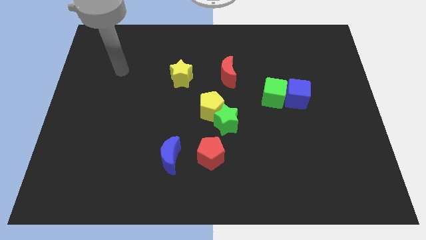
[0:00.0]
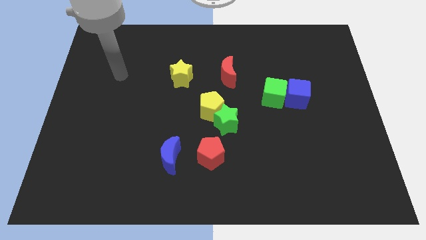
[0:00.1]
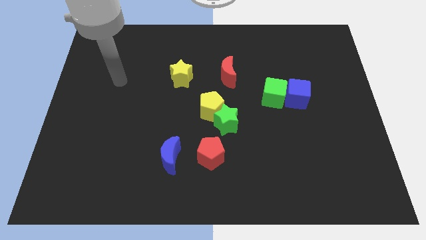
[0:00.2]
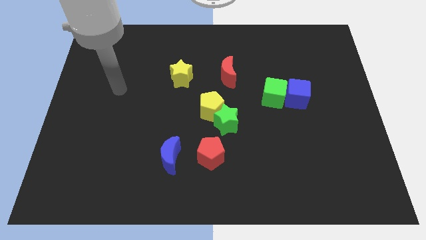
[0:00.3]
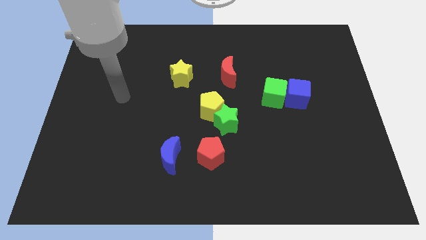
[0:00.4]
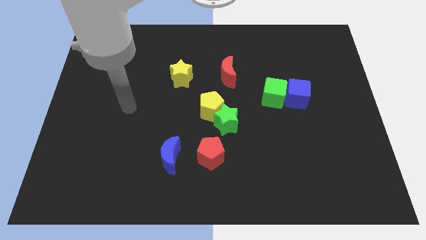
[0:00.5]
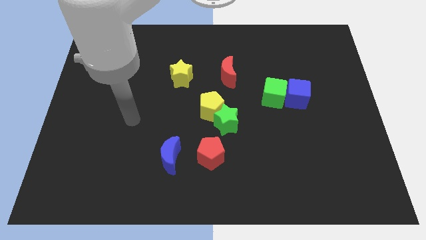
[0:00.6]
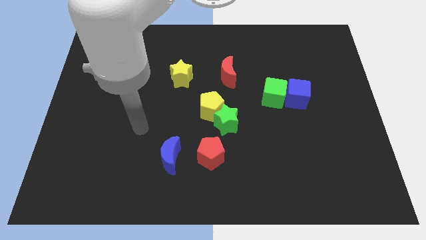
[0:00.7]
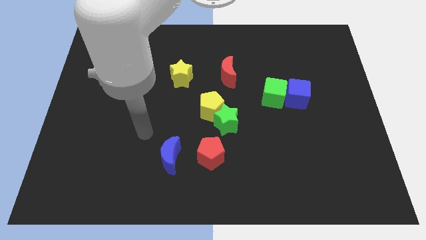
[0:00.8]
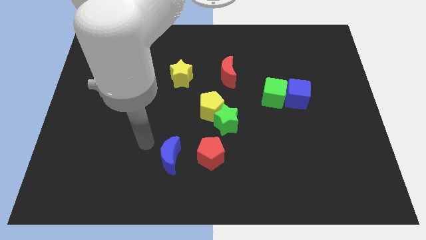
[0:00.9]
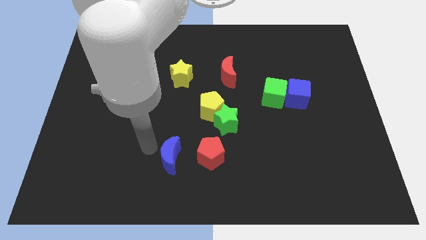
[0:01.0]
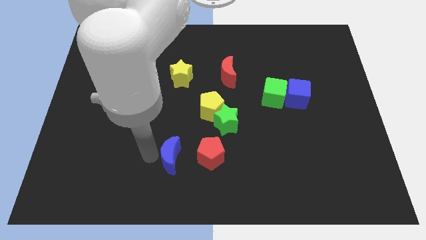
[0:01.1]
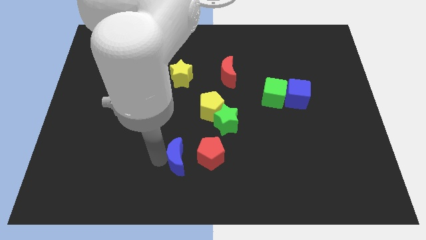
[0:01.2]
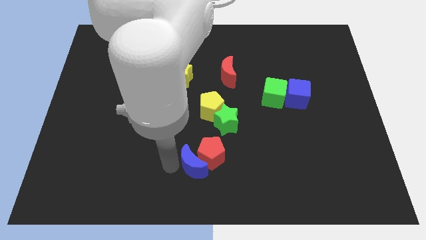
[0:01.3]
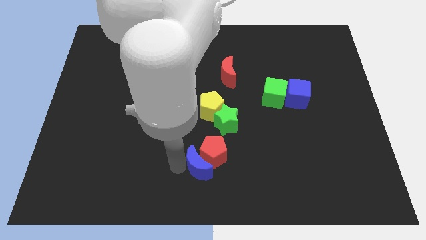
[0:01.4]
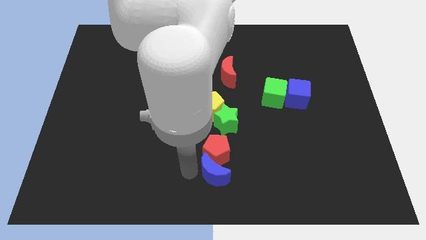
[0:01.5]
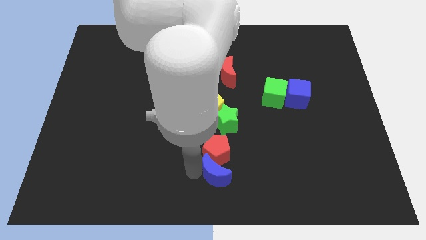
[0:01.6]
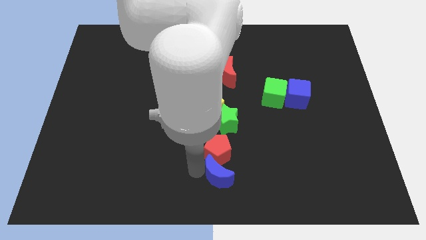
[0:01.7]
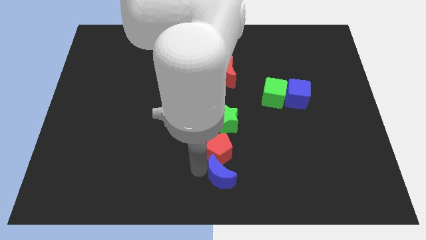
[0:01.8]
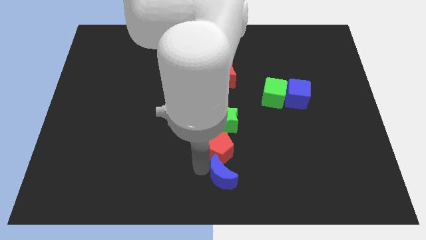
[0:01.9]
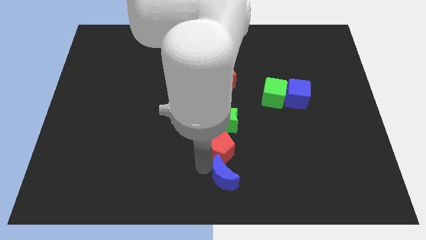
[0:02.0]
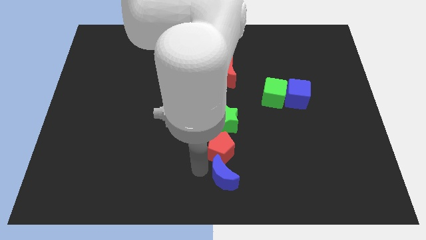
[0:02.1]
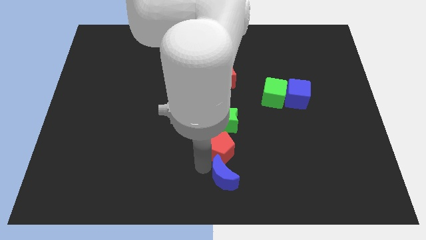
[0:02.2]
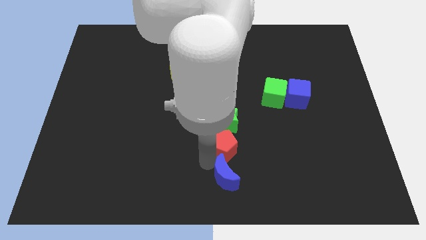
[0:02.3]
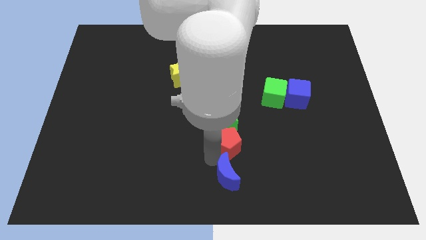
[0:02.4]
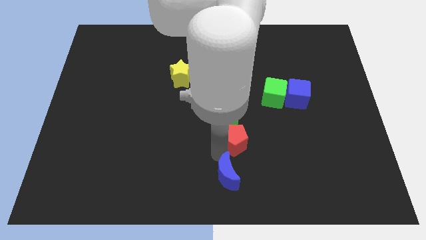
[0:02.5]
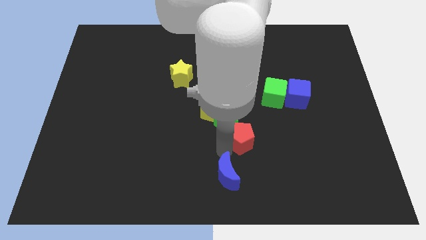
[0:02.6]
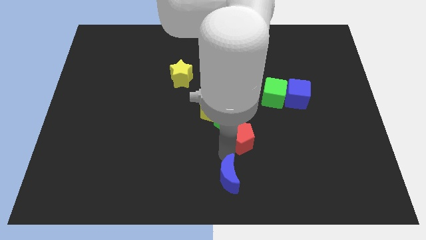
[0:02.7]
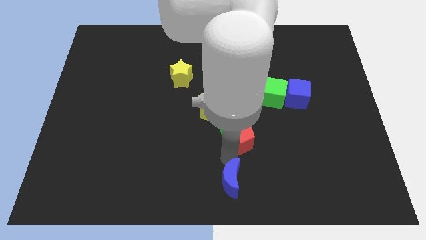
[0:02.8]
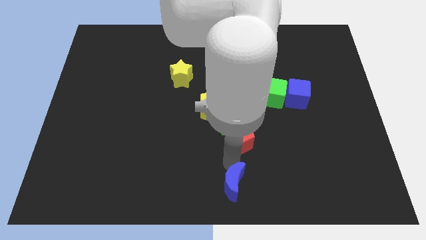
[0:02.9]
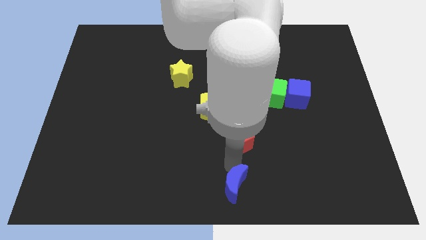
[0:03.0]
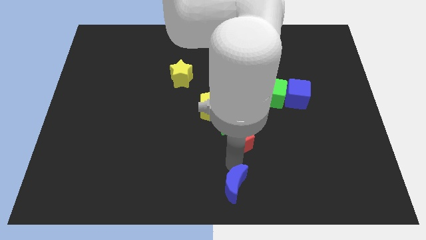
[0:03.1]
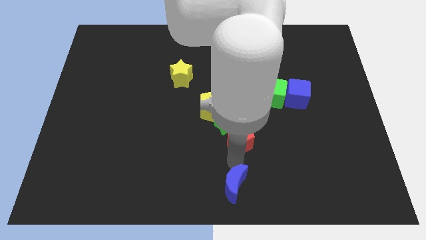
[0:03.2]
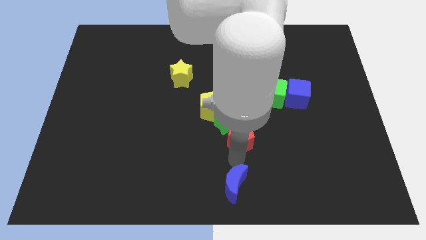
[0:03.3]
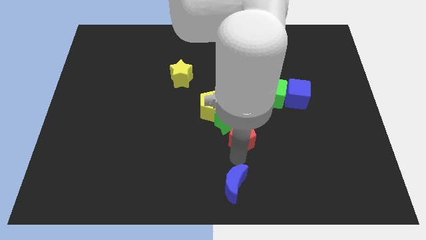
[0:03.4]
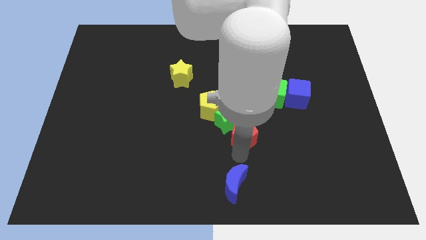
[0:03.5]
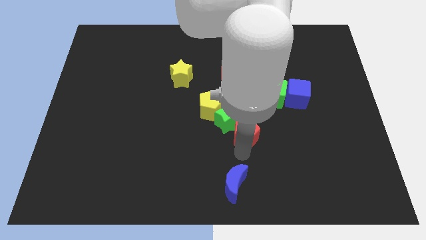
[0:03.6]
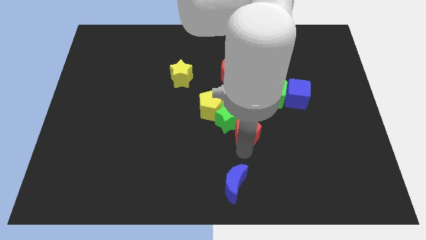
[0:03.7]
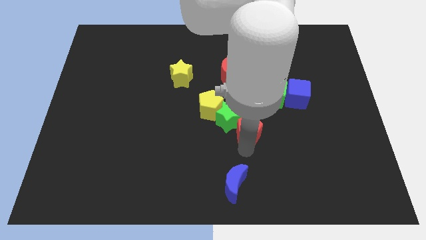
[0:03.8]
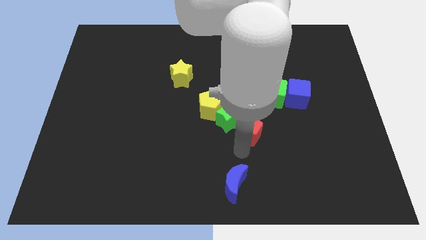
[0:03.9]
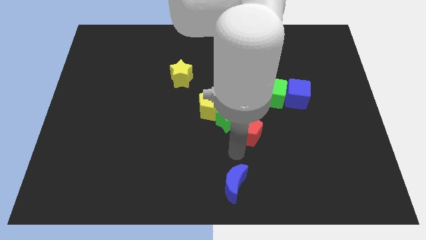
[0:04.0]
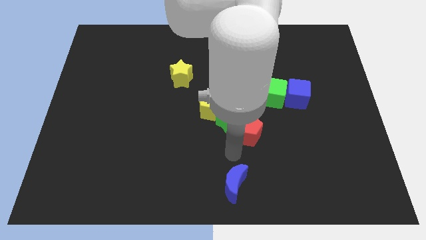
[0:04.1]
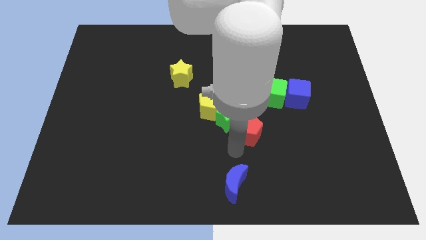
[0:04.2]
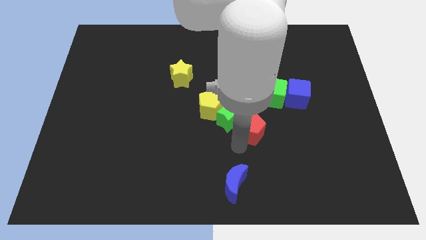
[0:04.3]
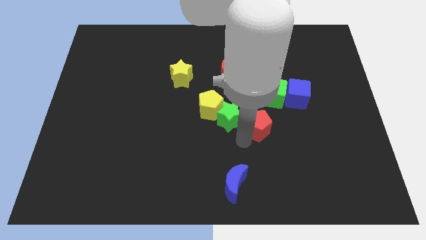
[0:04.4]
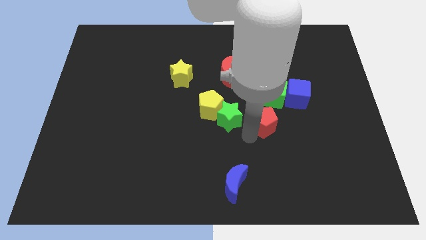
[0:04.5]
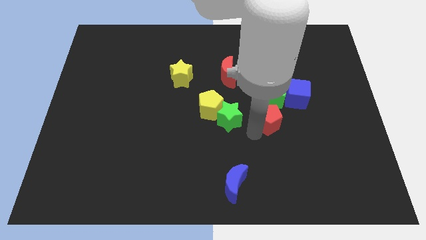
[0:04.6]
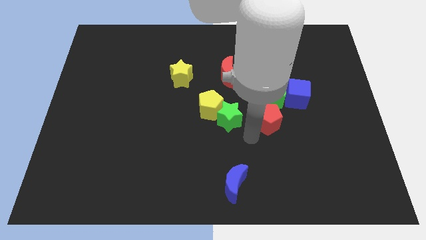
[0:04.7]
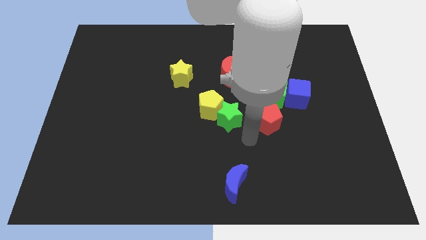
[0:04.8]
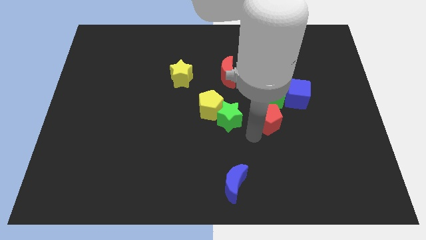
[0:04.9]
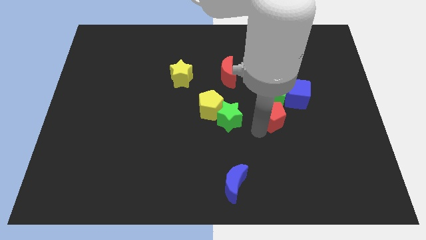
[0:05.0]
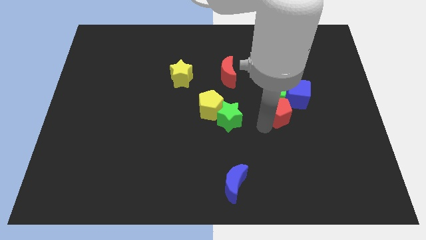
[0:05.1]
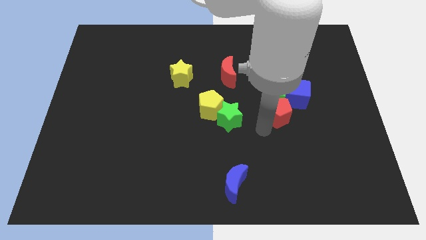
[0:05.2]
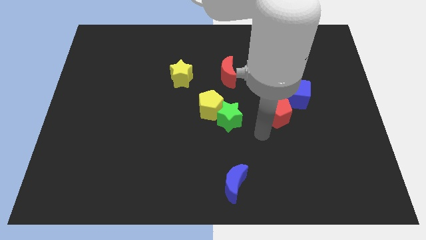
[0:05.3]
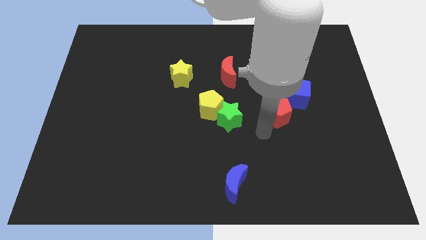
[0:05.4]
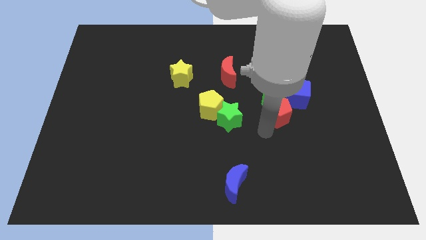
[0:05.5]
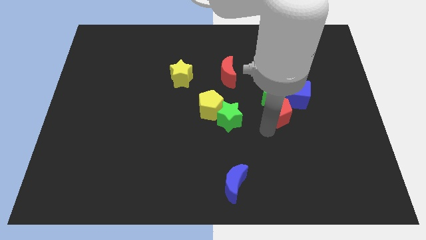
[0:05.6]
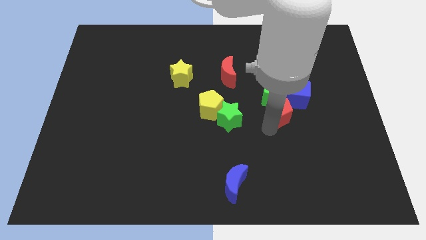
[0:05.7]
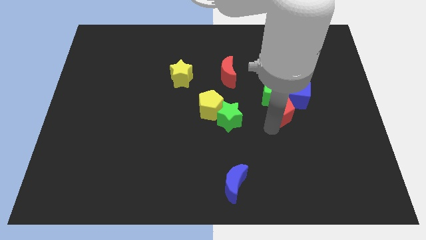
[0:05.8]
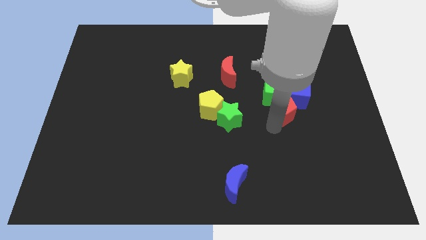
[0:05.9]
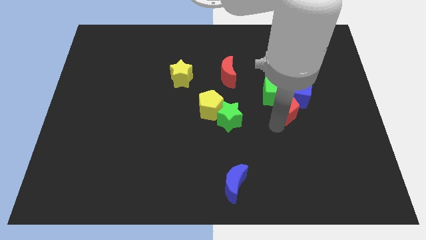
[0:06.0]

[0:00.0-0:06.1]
move the red pentagon next to the blue cube

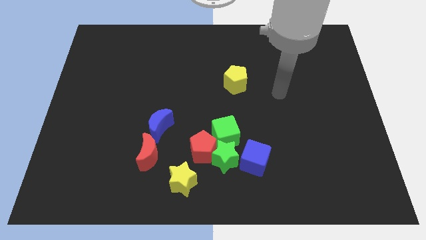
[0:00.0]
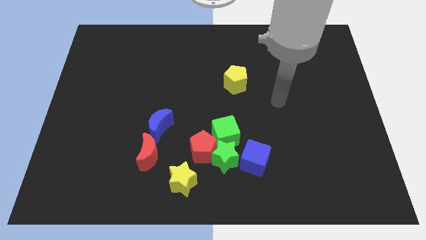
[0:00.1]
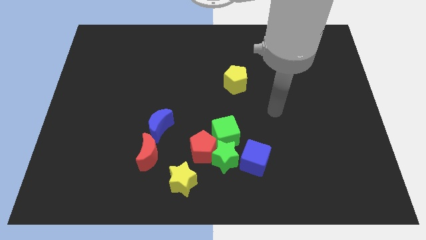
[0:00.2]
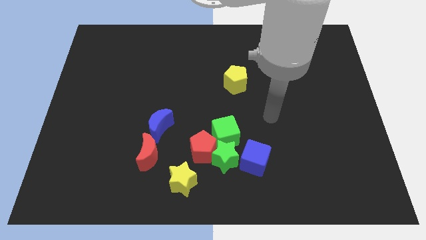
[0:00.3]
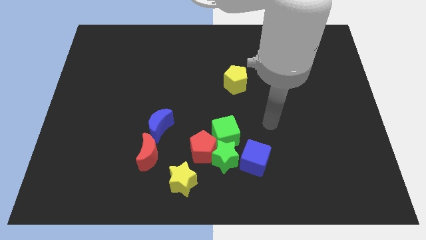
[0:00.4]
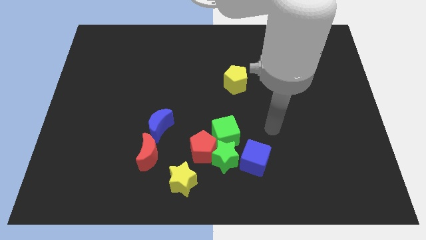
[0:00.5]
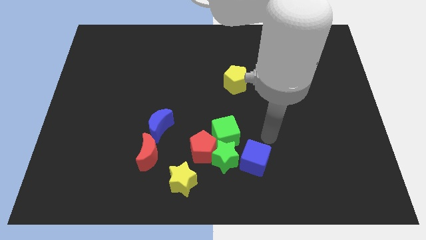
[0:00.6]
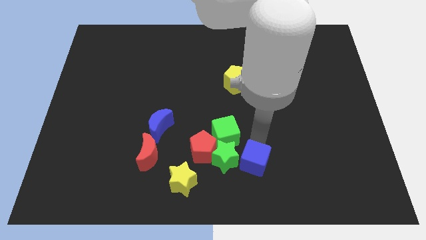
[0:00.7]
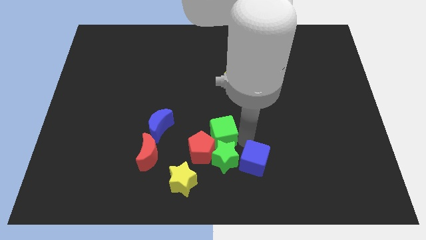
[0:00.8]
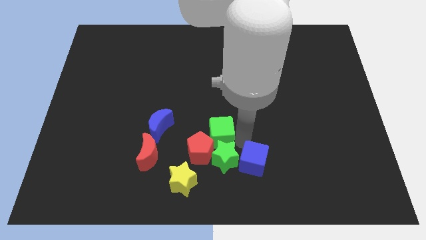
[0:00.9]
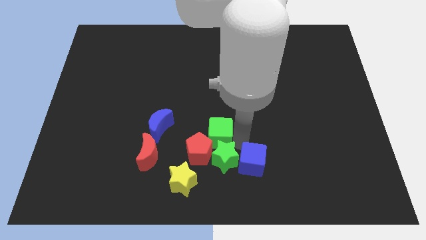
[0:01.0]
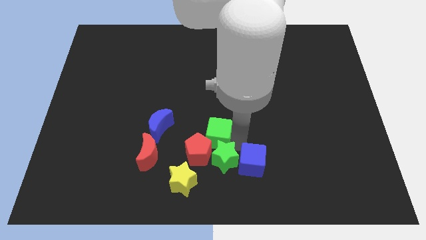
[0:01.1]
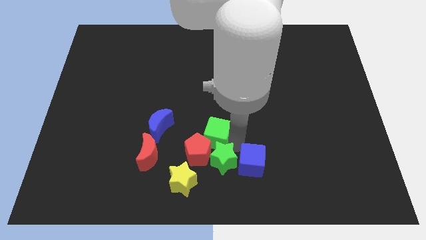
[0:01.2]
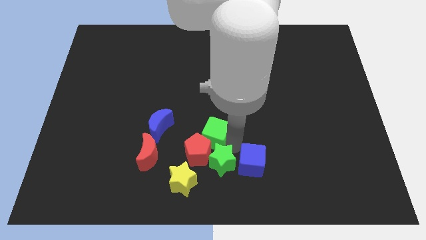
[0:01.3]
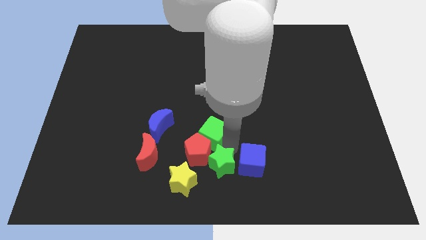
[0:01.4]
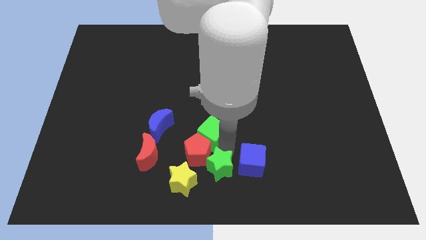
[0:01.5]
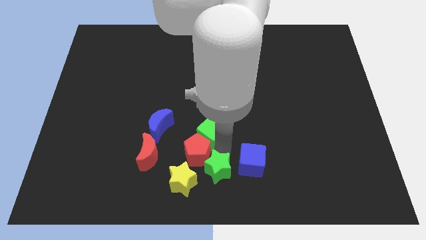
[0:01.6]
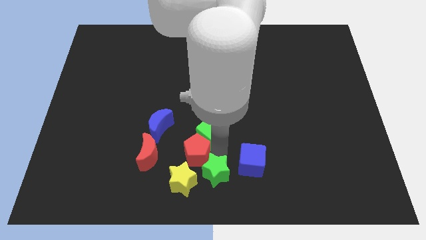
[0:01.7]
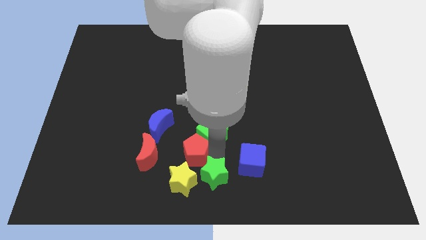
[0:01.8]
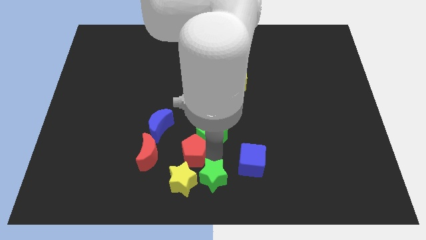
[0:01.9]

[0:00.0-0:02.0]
slide the green star towards the yellow star
